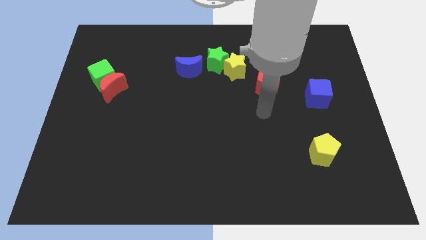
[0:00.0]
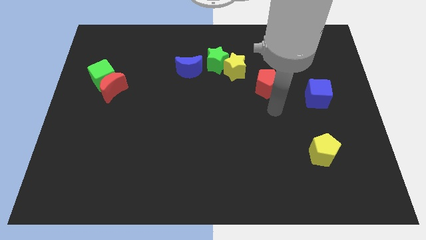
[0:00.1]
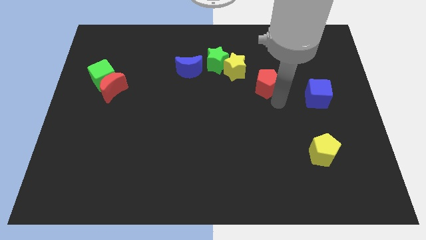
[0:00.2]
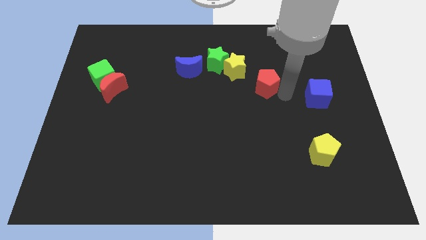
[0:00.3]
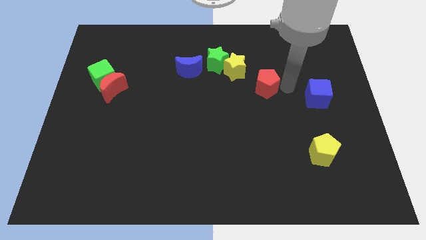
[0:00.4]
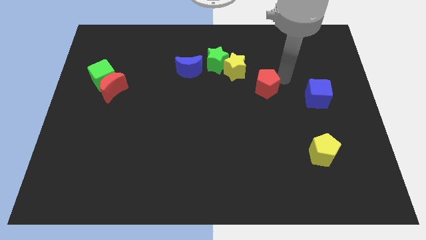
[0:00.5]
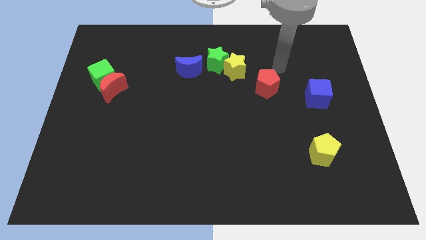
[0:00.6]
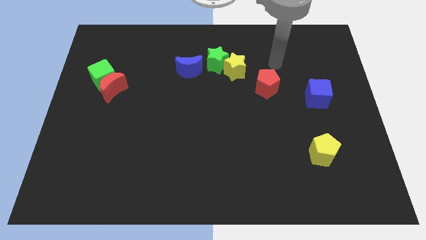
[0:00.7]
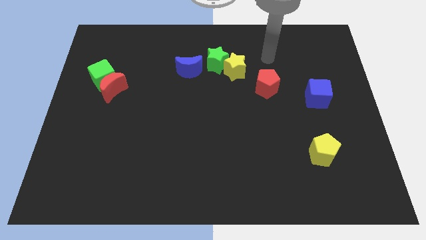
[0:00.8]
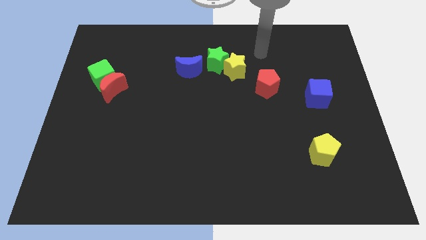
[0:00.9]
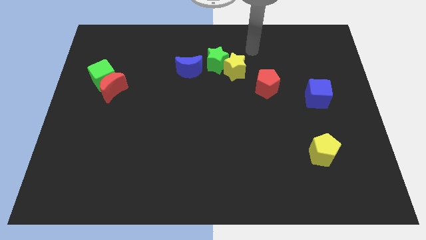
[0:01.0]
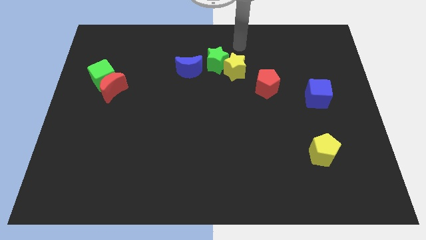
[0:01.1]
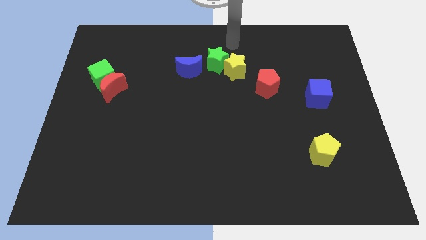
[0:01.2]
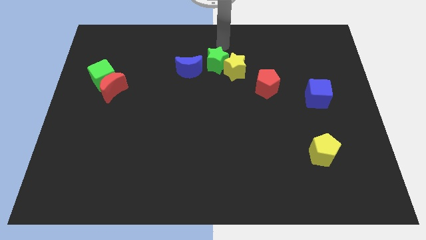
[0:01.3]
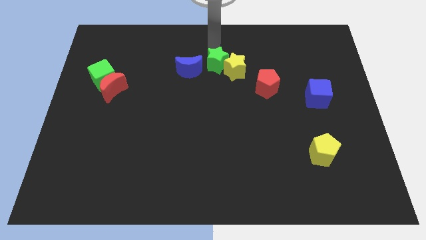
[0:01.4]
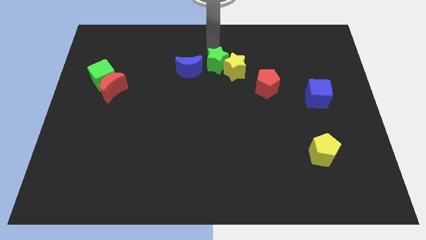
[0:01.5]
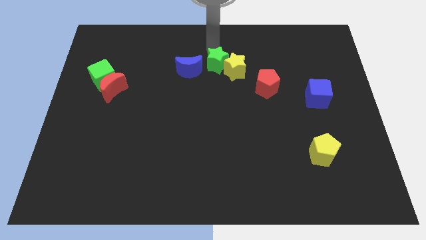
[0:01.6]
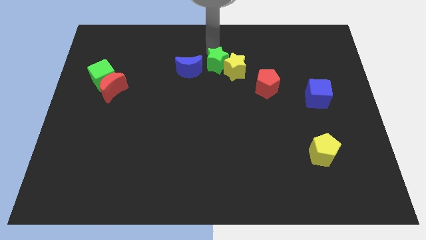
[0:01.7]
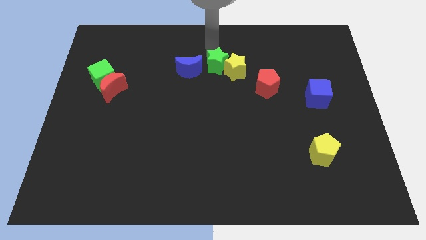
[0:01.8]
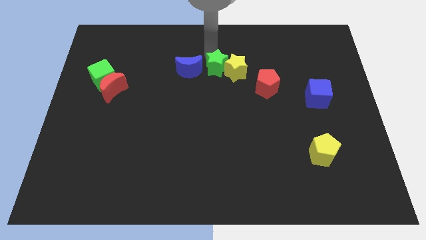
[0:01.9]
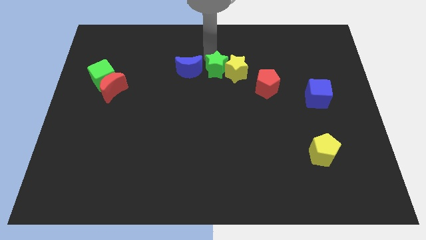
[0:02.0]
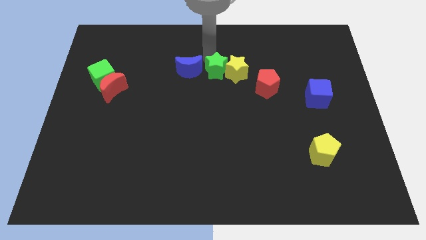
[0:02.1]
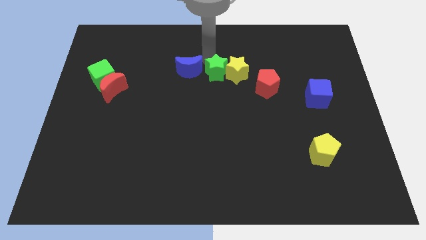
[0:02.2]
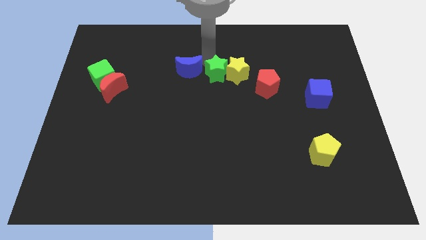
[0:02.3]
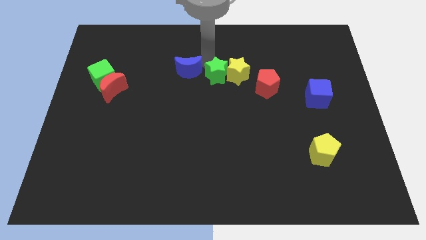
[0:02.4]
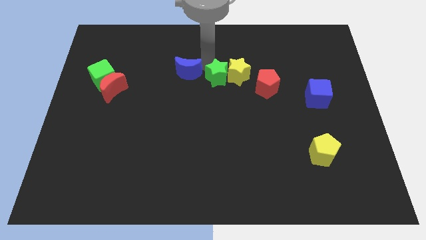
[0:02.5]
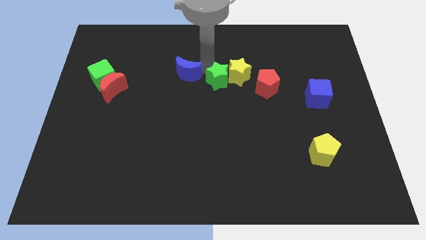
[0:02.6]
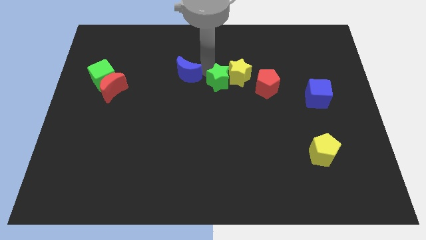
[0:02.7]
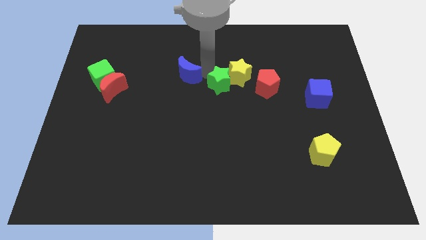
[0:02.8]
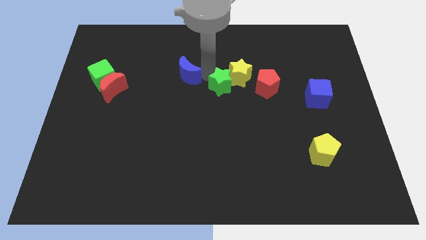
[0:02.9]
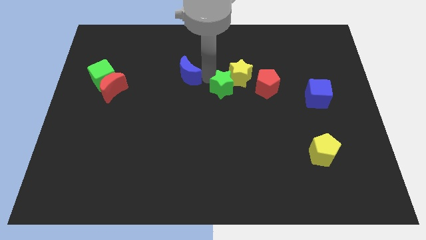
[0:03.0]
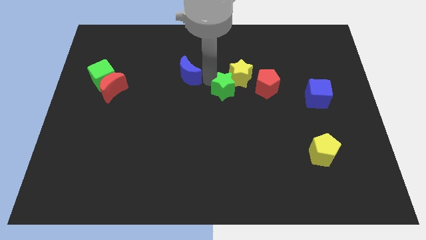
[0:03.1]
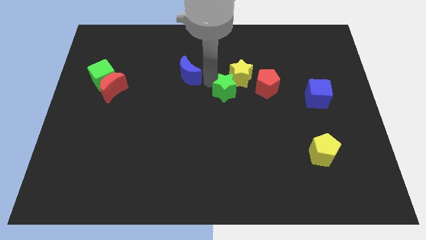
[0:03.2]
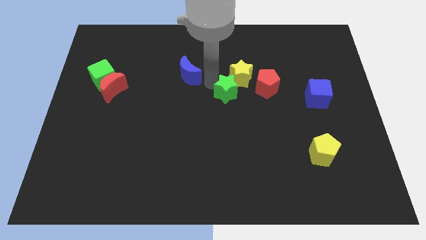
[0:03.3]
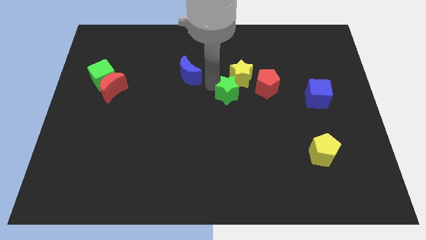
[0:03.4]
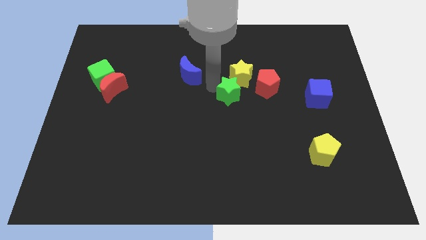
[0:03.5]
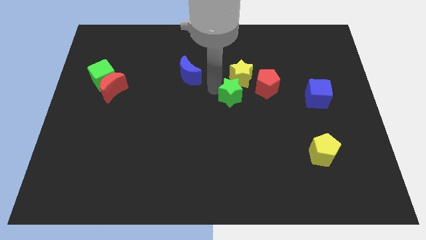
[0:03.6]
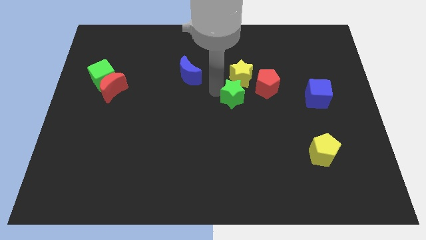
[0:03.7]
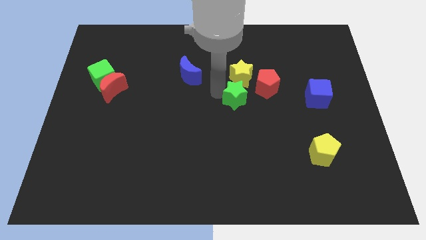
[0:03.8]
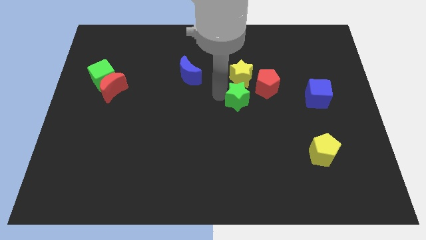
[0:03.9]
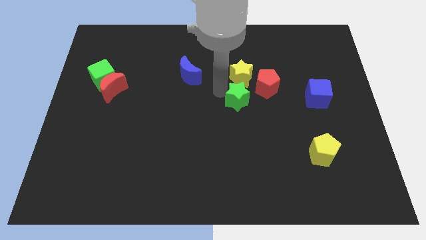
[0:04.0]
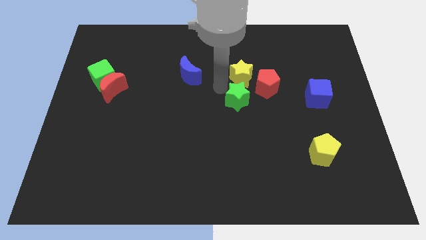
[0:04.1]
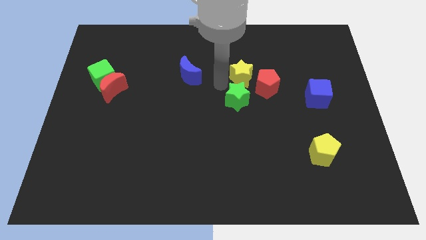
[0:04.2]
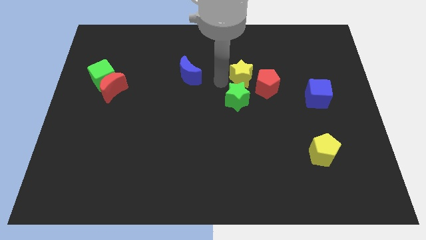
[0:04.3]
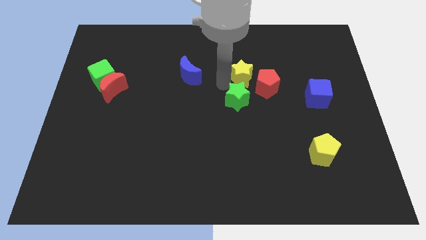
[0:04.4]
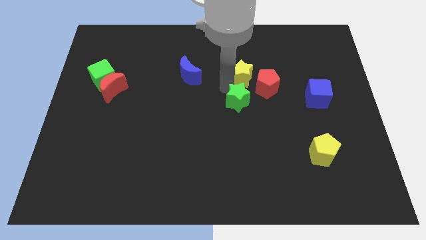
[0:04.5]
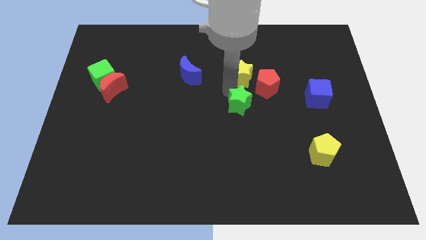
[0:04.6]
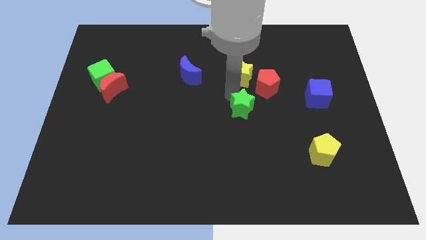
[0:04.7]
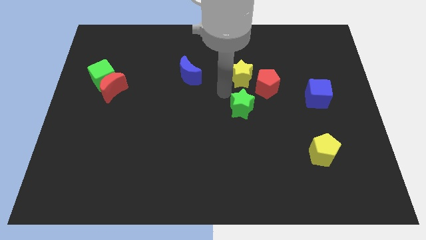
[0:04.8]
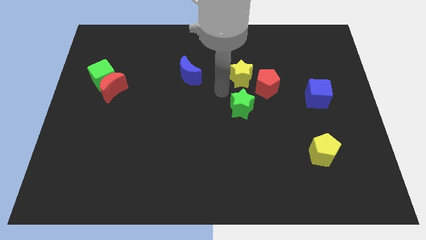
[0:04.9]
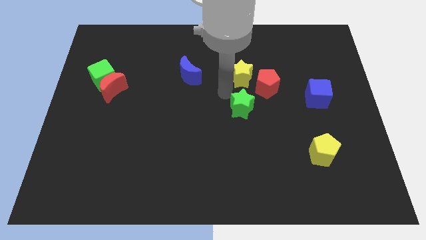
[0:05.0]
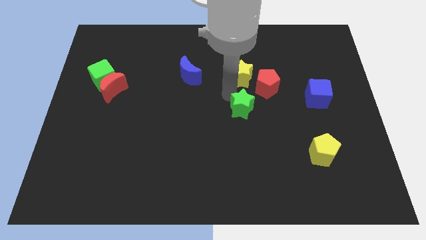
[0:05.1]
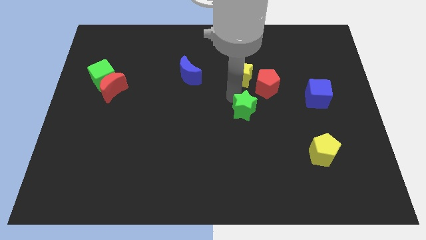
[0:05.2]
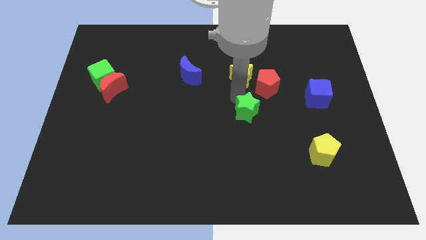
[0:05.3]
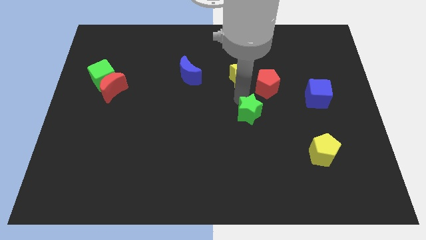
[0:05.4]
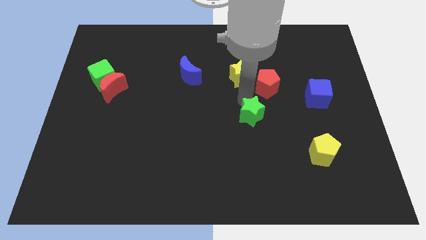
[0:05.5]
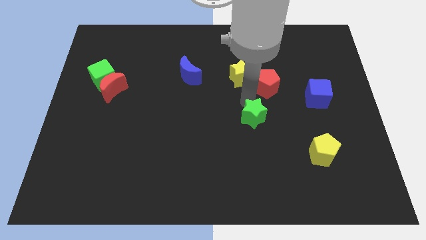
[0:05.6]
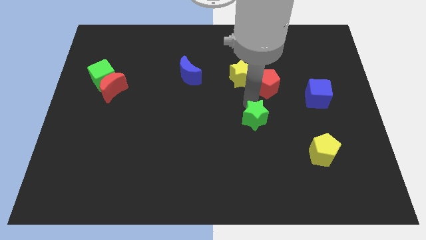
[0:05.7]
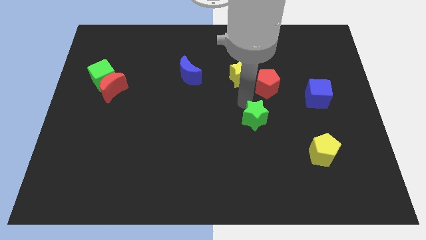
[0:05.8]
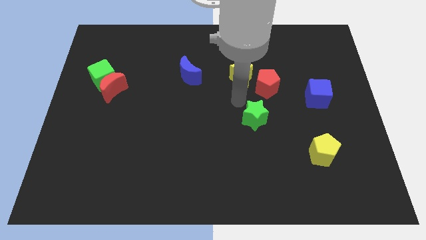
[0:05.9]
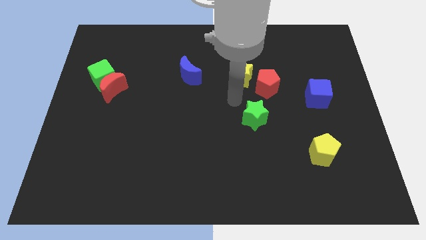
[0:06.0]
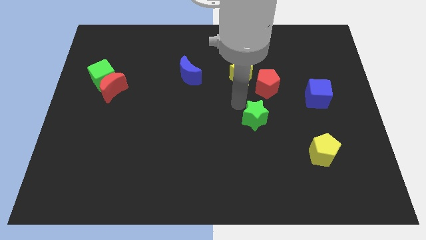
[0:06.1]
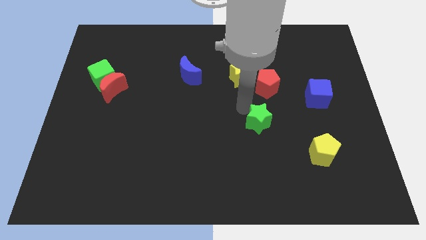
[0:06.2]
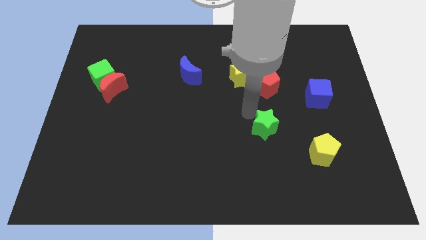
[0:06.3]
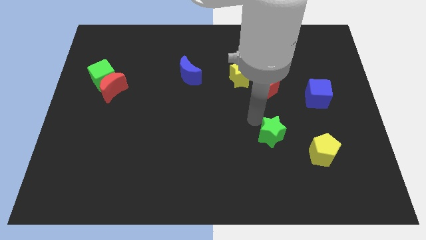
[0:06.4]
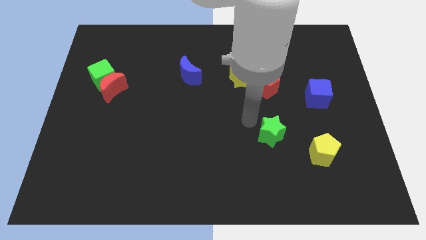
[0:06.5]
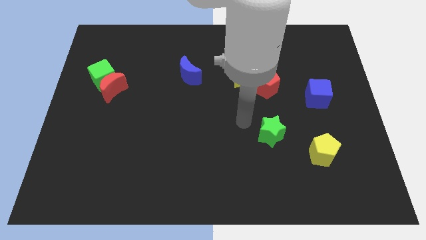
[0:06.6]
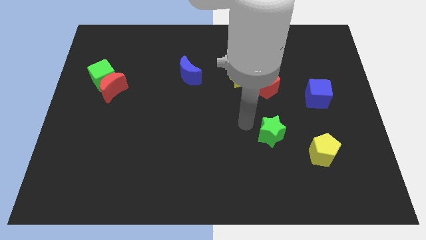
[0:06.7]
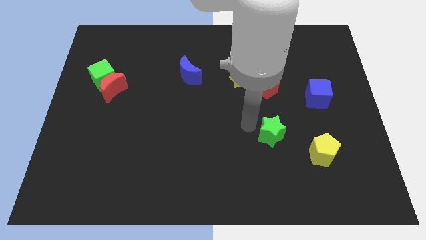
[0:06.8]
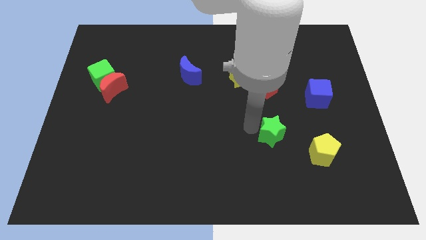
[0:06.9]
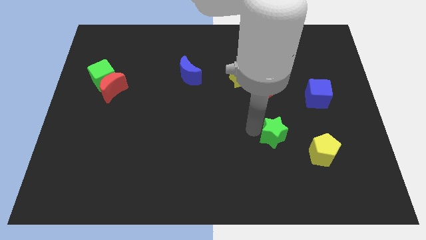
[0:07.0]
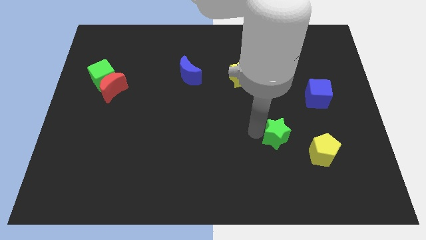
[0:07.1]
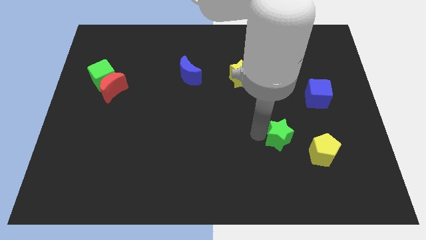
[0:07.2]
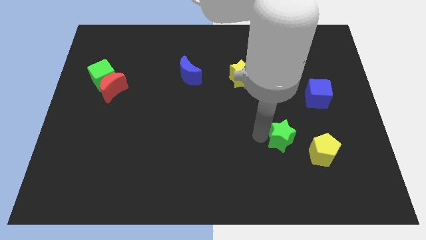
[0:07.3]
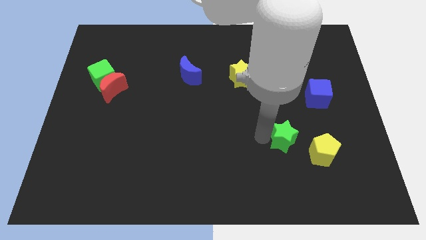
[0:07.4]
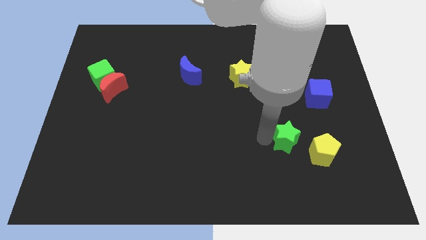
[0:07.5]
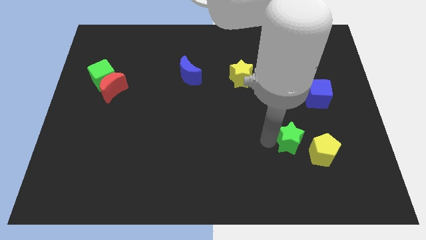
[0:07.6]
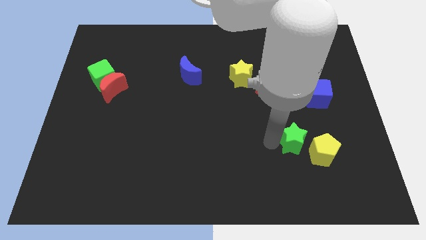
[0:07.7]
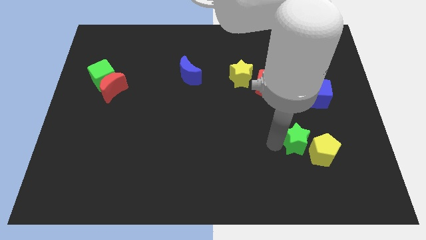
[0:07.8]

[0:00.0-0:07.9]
slide the green star towards the yellow pentagon
